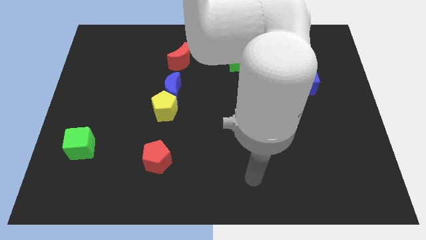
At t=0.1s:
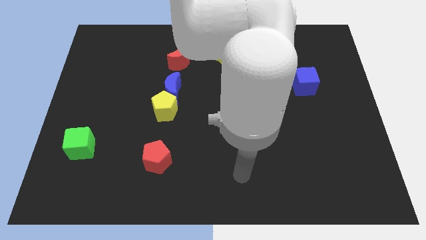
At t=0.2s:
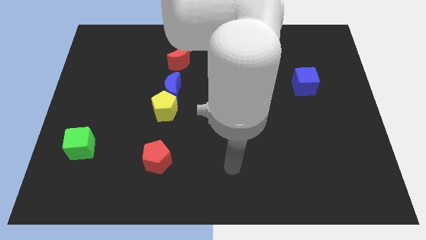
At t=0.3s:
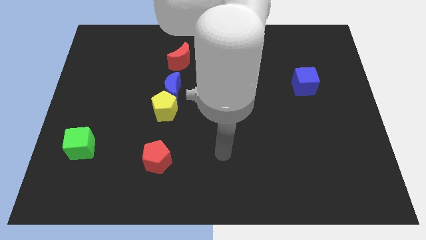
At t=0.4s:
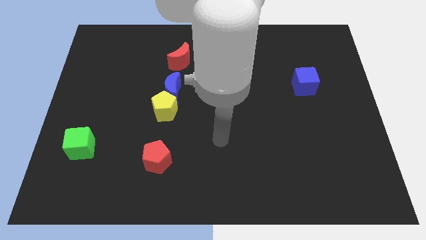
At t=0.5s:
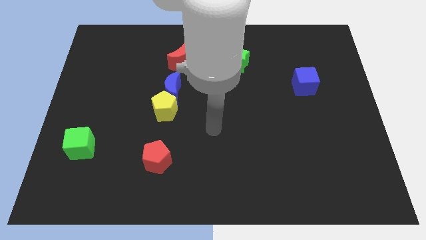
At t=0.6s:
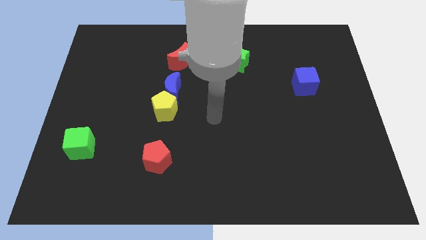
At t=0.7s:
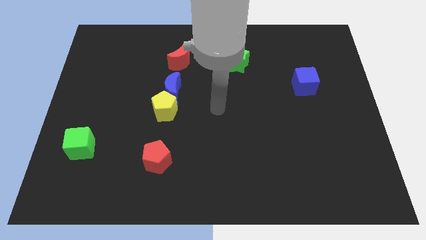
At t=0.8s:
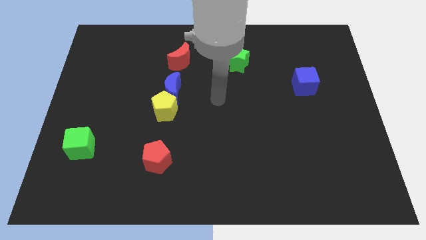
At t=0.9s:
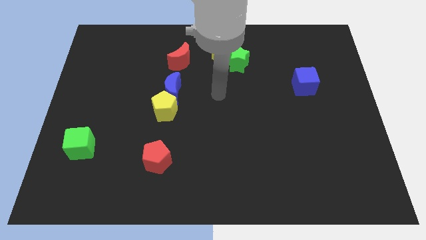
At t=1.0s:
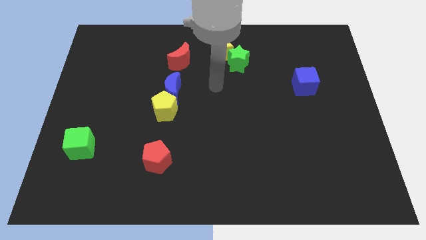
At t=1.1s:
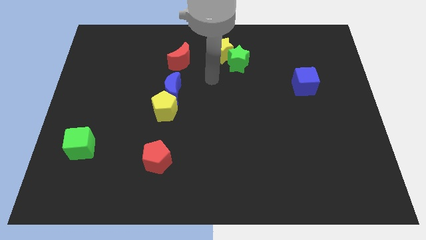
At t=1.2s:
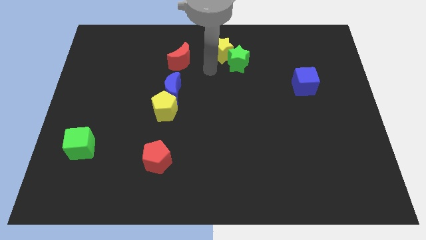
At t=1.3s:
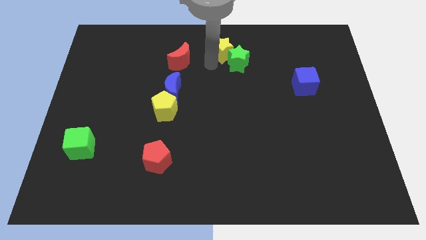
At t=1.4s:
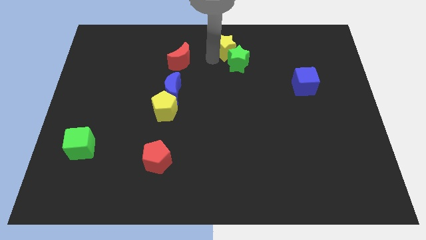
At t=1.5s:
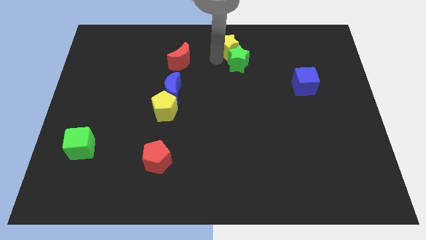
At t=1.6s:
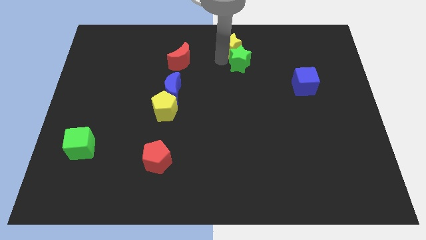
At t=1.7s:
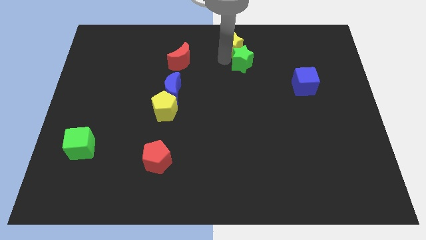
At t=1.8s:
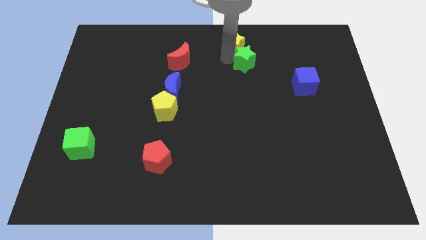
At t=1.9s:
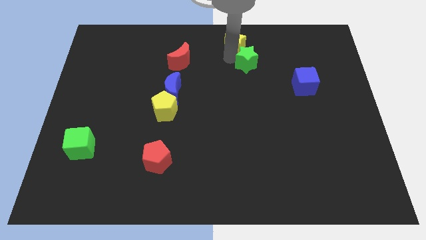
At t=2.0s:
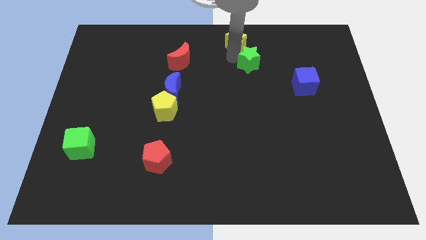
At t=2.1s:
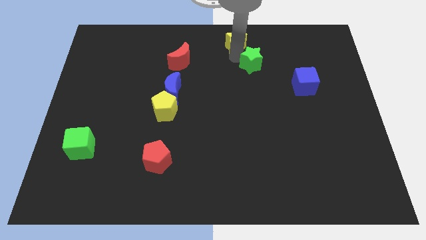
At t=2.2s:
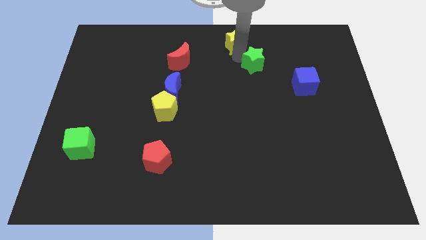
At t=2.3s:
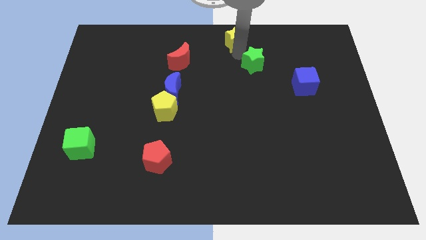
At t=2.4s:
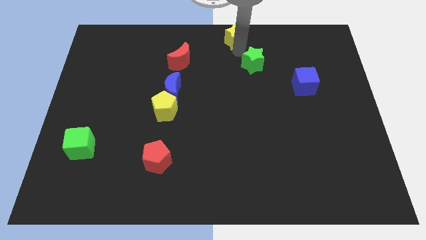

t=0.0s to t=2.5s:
pull the green star apart from the yellow star

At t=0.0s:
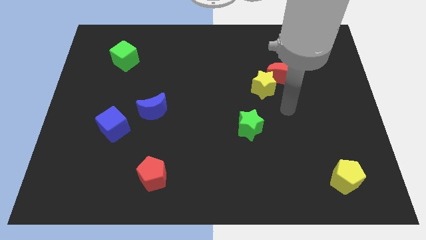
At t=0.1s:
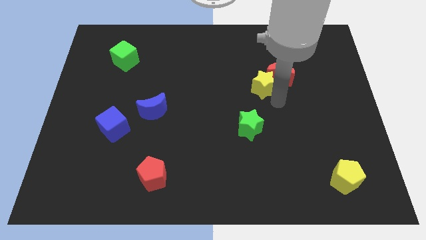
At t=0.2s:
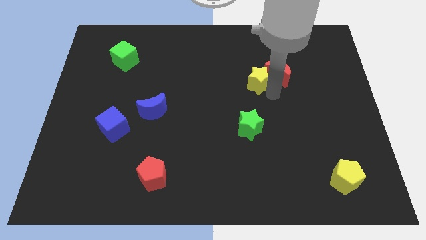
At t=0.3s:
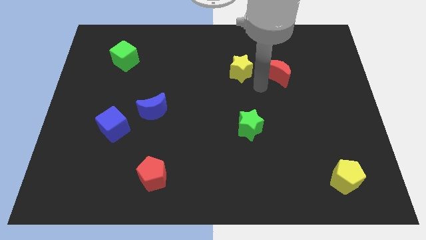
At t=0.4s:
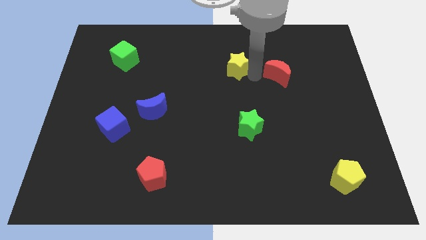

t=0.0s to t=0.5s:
separate the red moon from the yellow star

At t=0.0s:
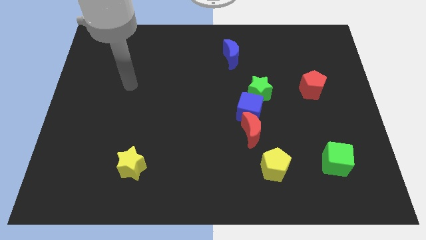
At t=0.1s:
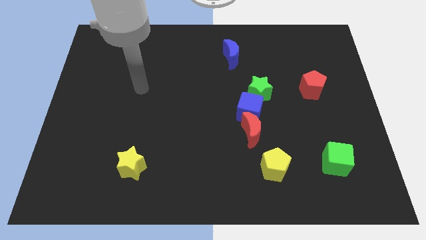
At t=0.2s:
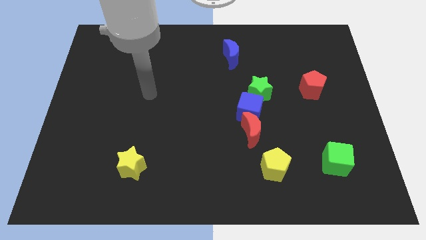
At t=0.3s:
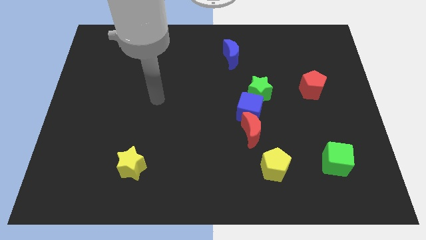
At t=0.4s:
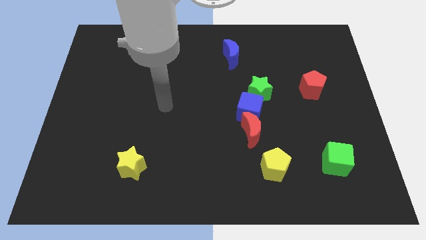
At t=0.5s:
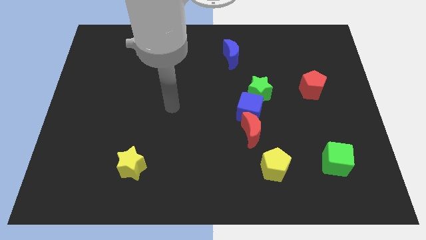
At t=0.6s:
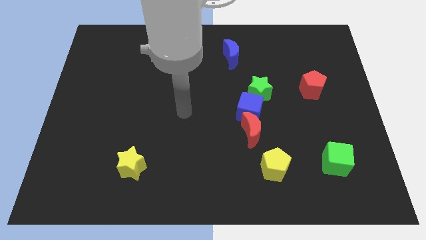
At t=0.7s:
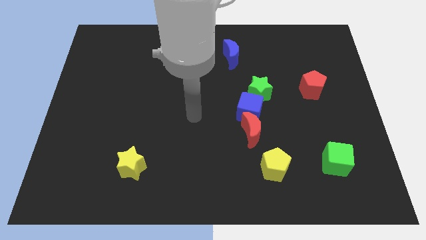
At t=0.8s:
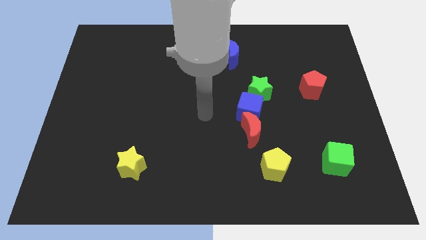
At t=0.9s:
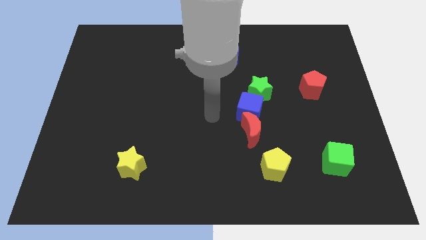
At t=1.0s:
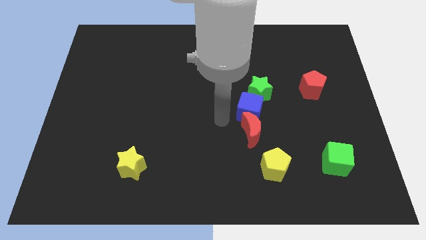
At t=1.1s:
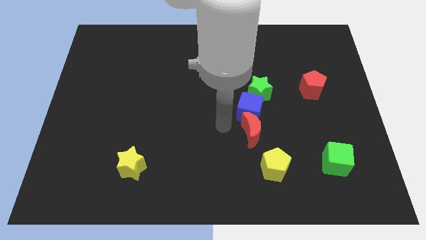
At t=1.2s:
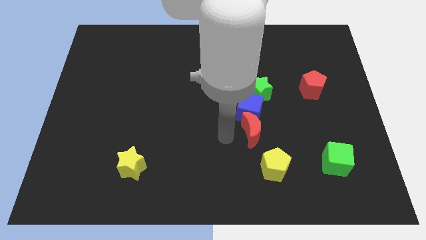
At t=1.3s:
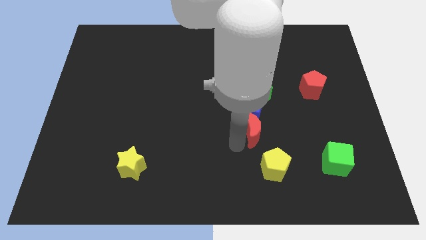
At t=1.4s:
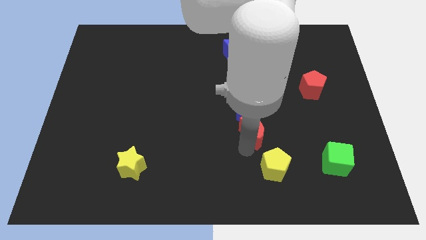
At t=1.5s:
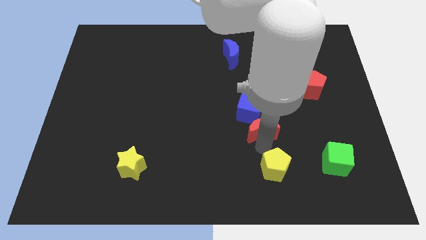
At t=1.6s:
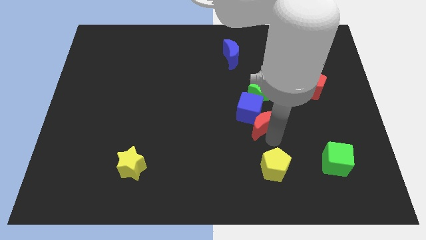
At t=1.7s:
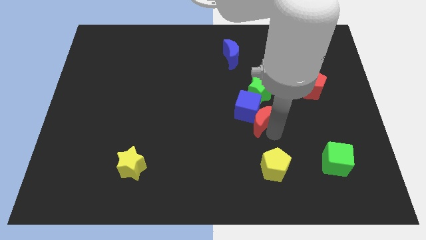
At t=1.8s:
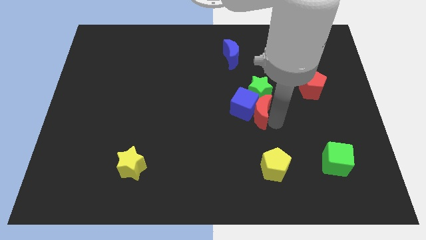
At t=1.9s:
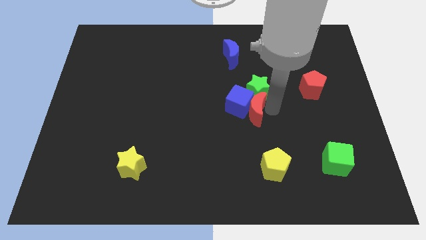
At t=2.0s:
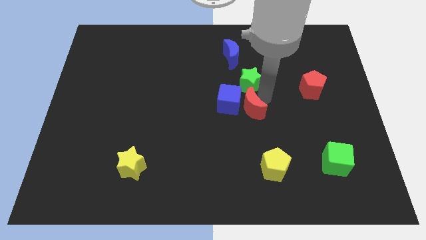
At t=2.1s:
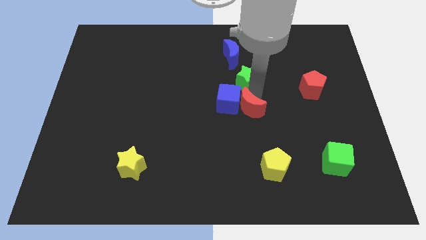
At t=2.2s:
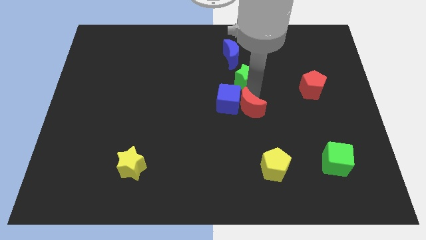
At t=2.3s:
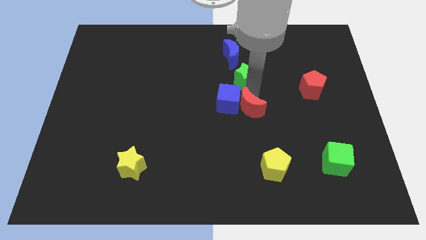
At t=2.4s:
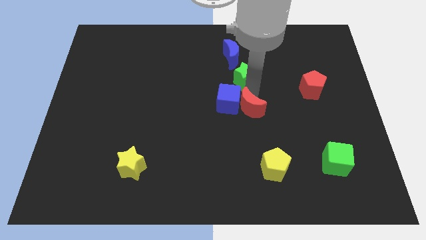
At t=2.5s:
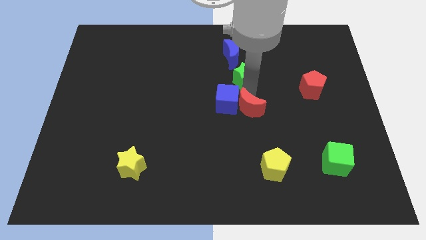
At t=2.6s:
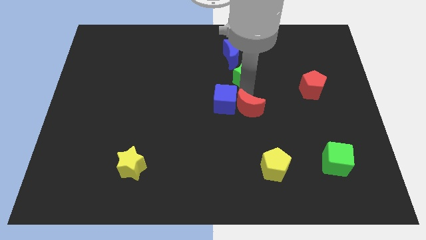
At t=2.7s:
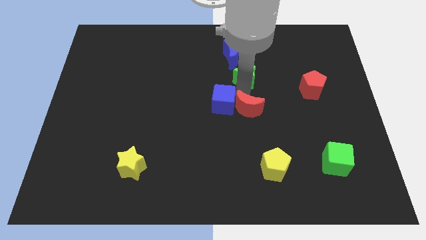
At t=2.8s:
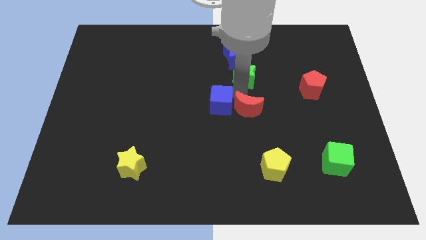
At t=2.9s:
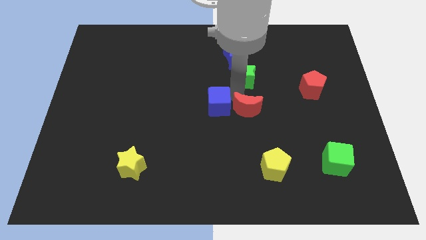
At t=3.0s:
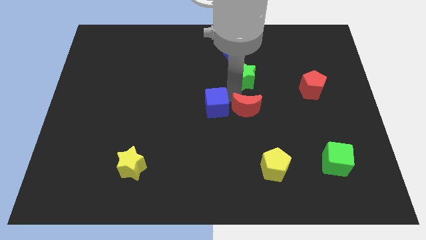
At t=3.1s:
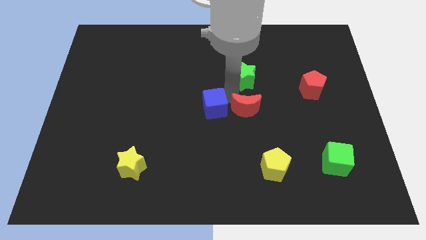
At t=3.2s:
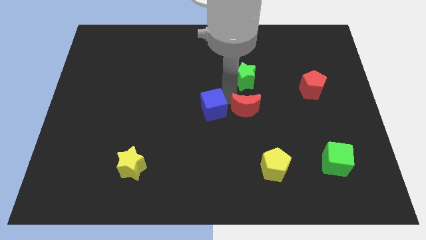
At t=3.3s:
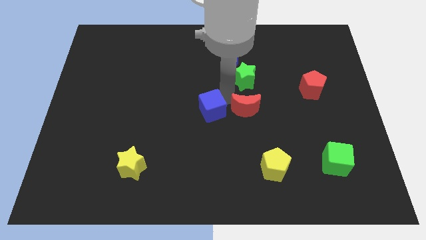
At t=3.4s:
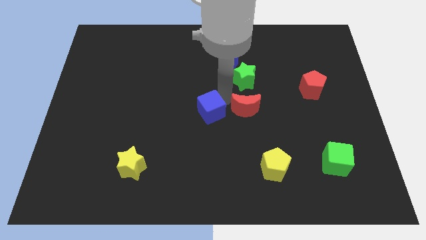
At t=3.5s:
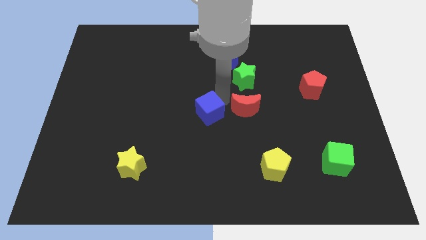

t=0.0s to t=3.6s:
move the blue cube away from the red moon and green star

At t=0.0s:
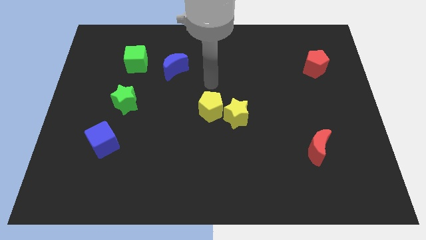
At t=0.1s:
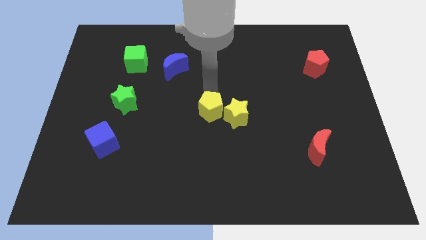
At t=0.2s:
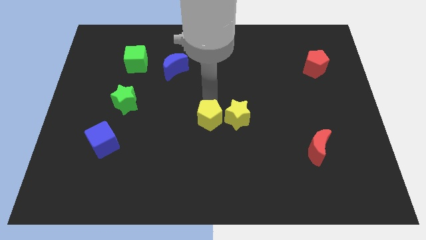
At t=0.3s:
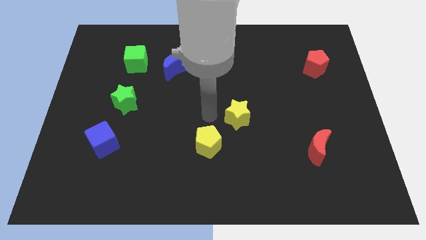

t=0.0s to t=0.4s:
separate the yellow star from the yellow pentagon

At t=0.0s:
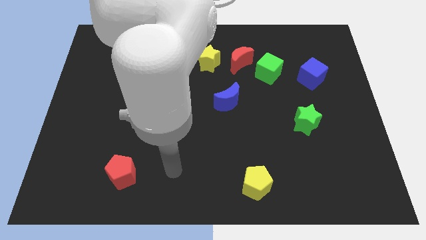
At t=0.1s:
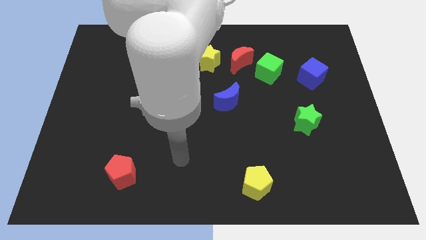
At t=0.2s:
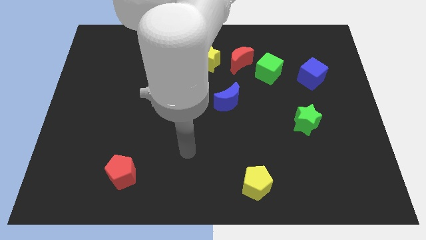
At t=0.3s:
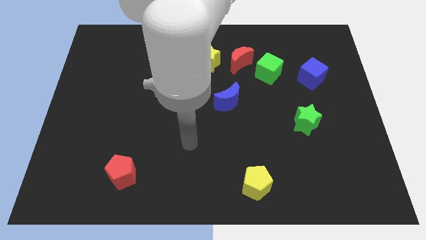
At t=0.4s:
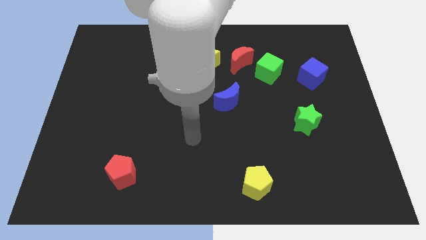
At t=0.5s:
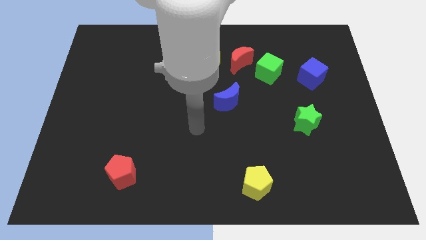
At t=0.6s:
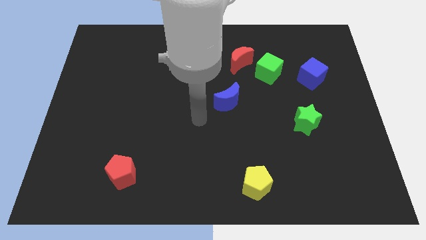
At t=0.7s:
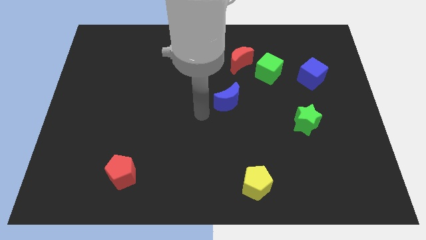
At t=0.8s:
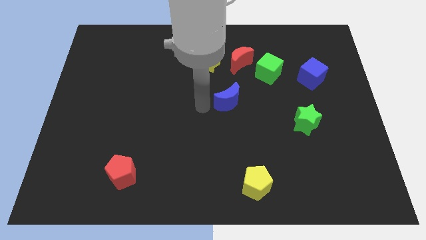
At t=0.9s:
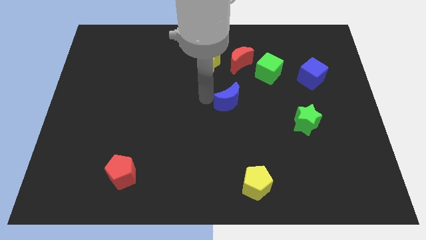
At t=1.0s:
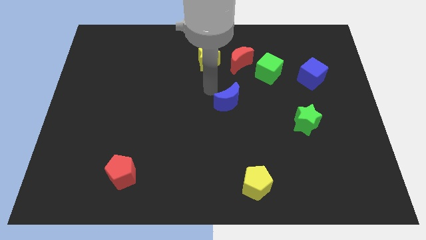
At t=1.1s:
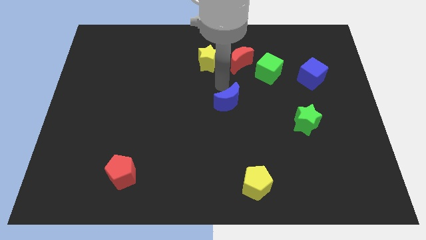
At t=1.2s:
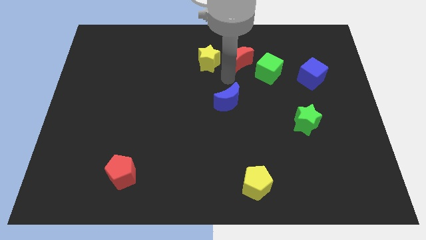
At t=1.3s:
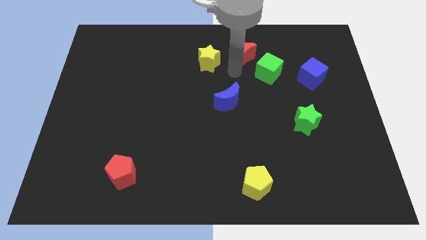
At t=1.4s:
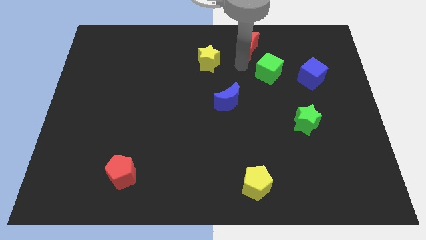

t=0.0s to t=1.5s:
separate the green cube from the red moon

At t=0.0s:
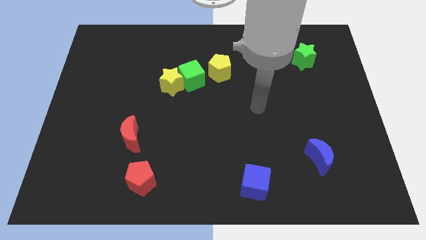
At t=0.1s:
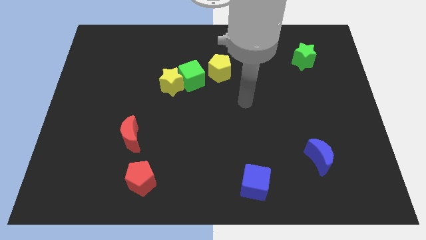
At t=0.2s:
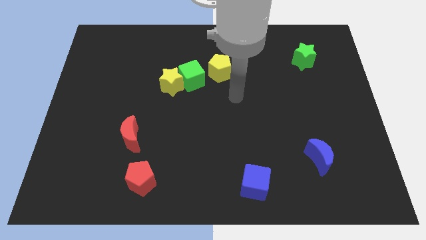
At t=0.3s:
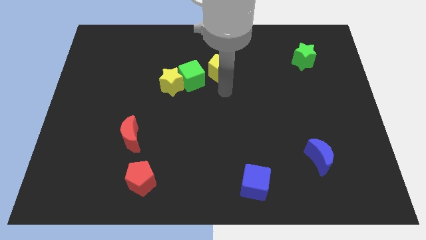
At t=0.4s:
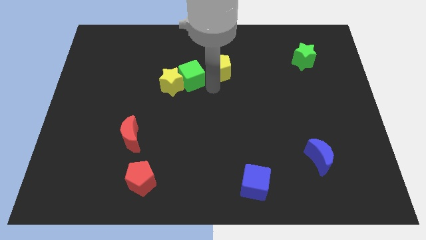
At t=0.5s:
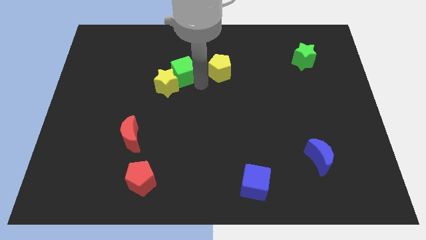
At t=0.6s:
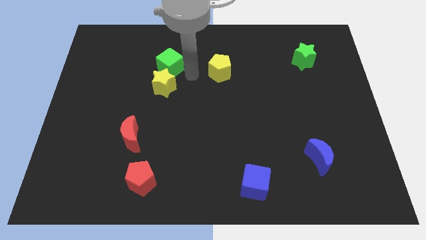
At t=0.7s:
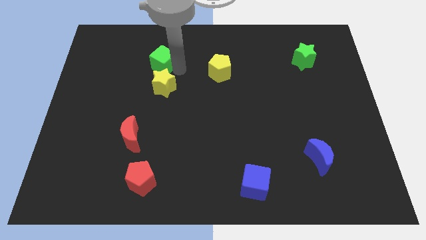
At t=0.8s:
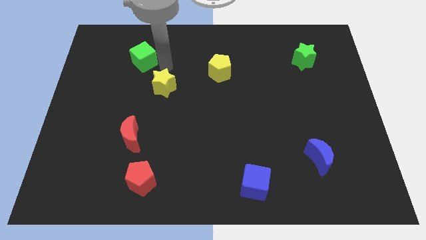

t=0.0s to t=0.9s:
pull the yellow star apart from the green cube
